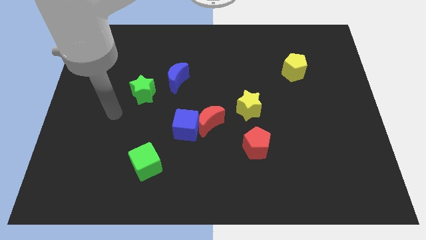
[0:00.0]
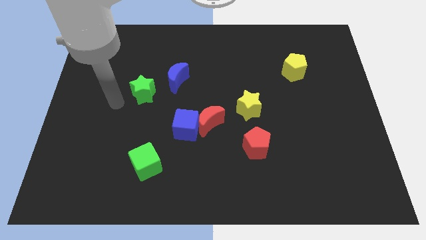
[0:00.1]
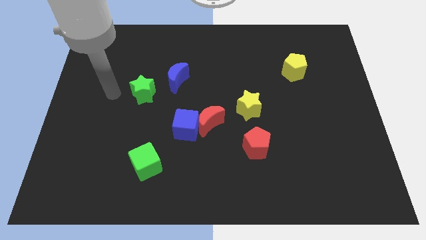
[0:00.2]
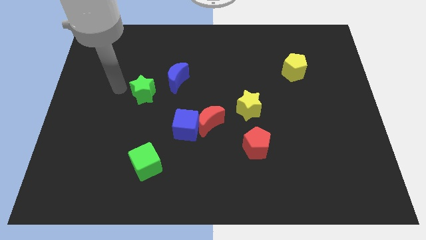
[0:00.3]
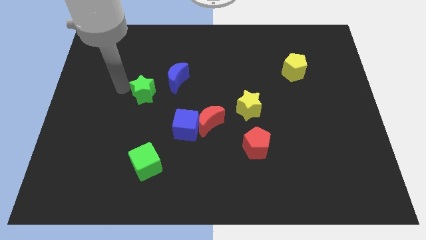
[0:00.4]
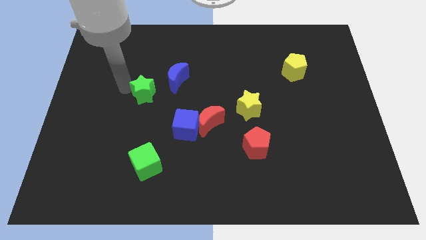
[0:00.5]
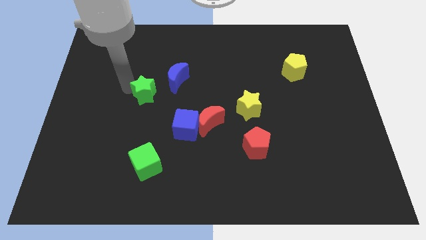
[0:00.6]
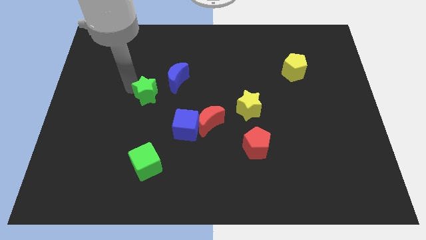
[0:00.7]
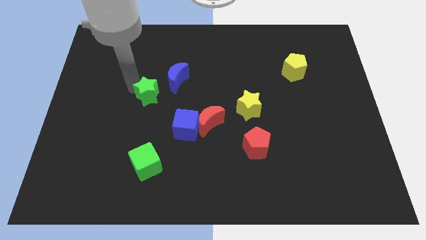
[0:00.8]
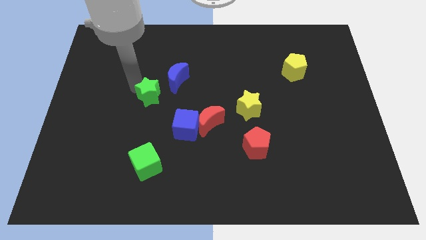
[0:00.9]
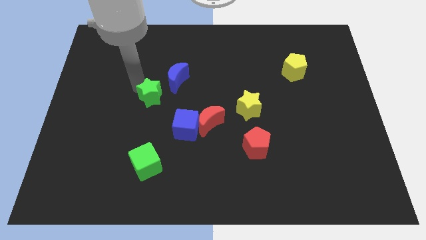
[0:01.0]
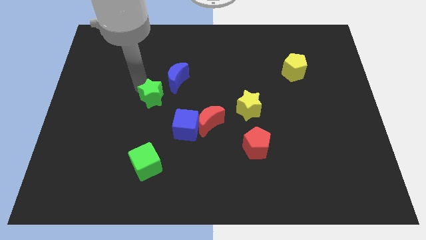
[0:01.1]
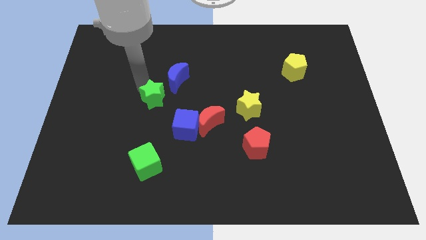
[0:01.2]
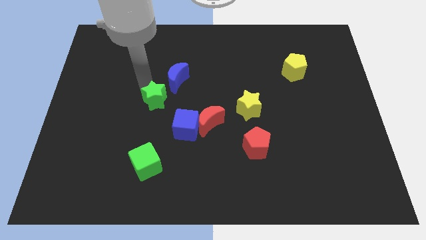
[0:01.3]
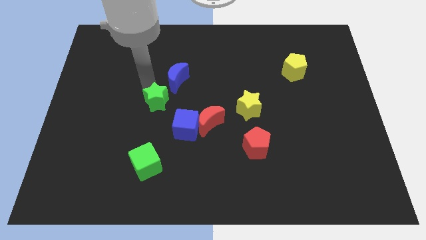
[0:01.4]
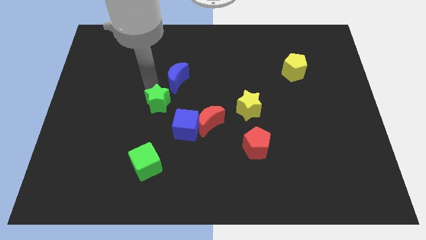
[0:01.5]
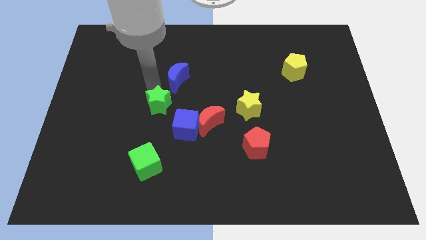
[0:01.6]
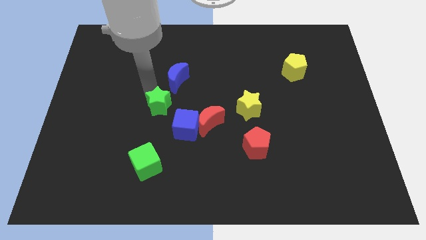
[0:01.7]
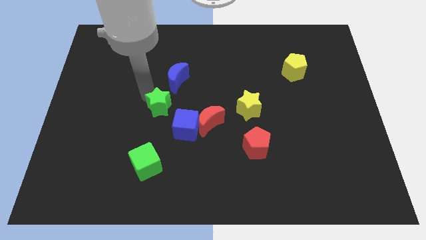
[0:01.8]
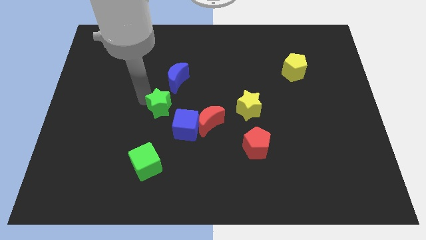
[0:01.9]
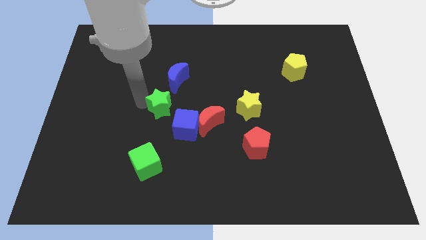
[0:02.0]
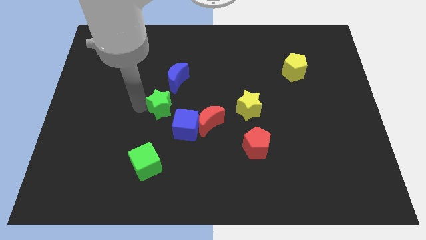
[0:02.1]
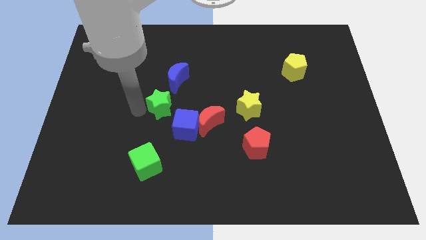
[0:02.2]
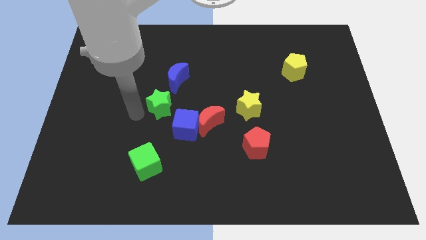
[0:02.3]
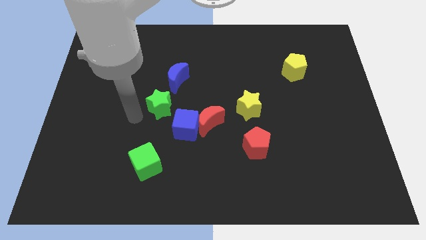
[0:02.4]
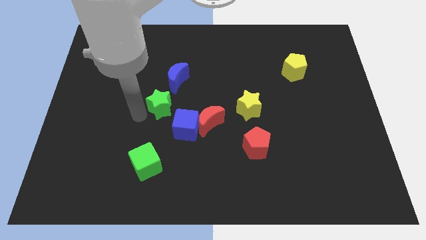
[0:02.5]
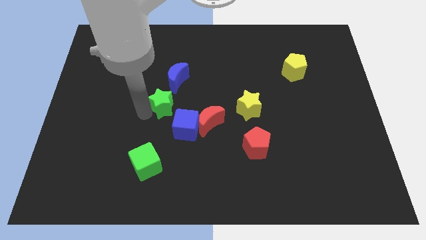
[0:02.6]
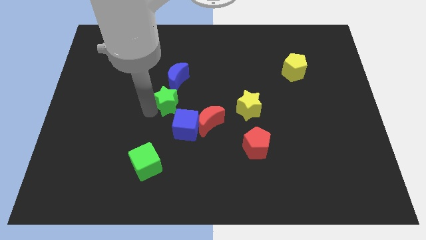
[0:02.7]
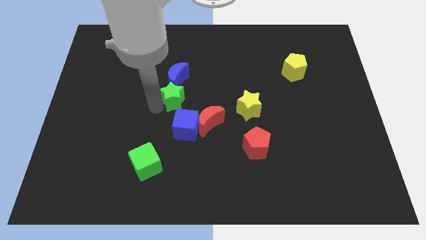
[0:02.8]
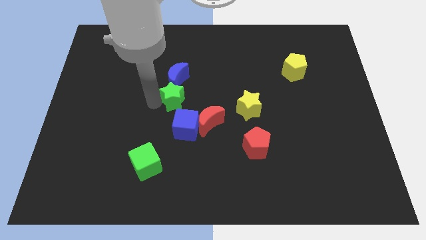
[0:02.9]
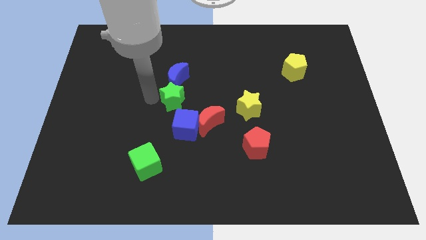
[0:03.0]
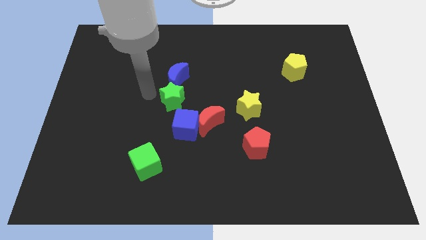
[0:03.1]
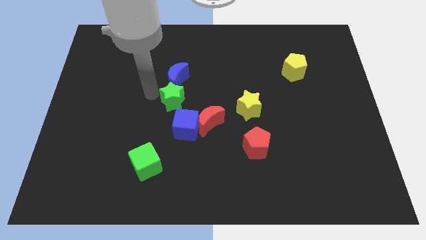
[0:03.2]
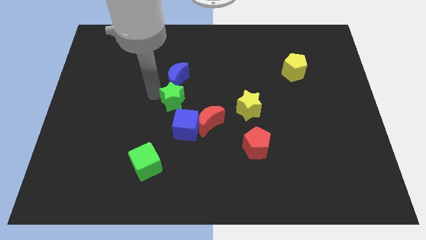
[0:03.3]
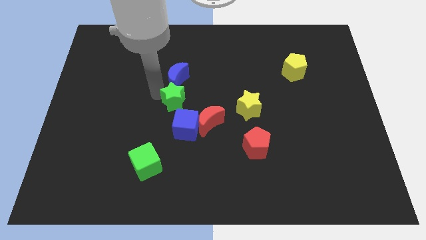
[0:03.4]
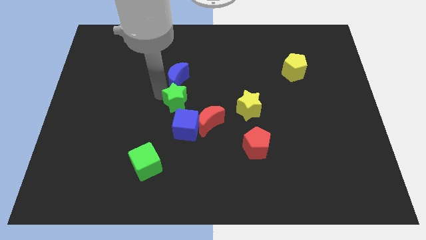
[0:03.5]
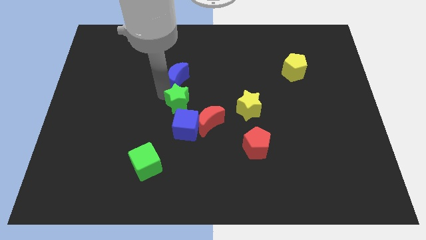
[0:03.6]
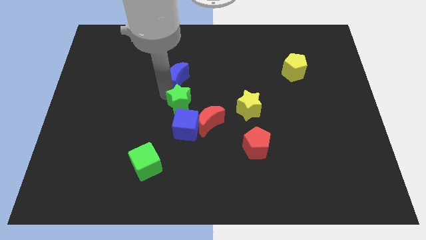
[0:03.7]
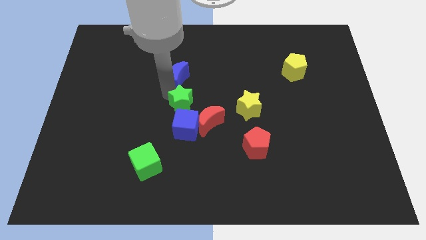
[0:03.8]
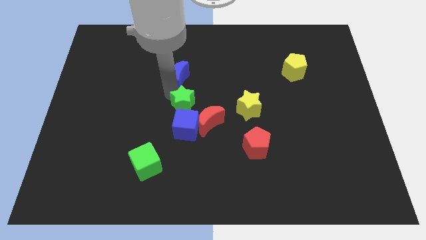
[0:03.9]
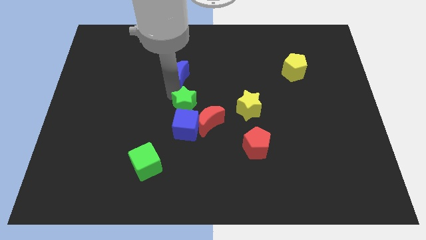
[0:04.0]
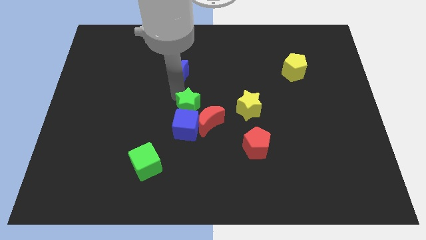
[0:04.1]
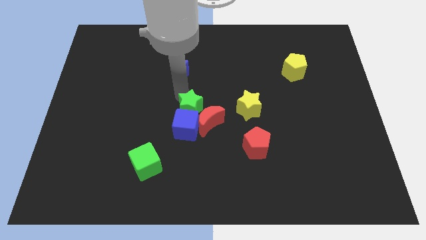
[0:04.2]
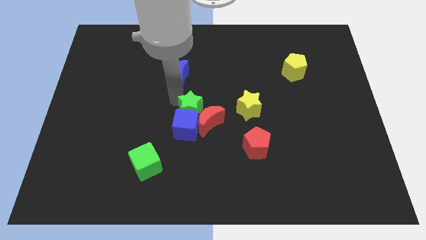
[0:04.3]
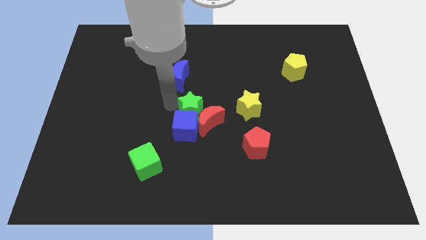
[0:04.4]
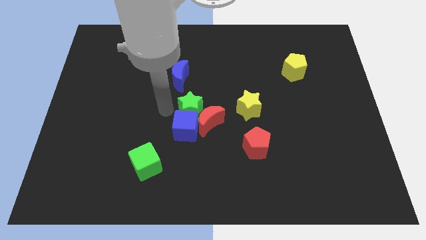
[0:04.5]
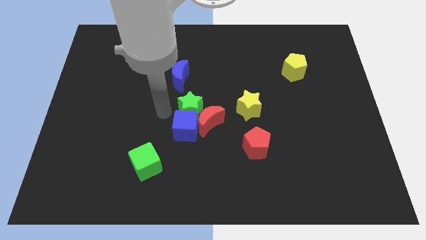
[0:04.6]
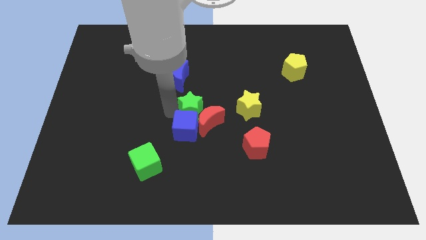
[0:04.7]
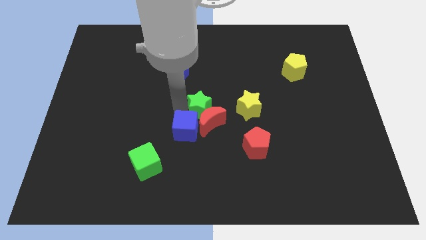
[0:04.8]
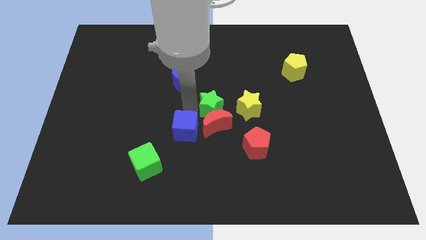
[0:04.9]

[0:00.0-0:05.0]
move the green star to the top right side of the red moon

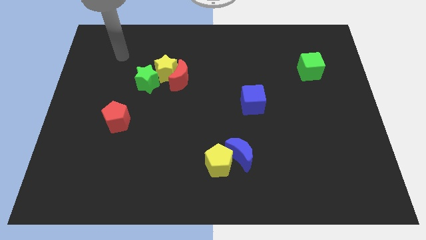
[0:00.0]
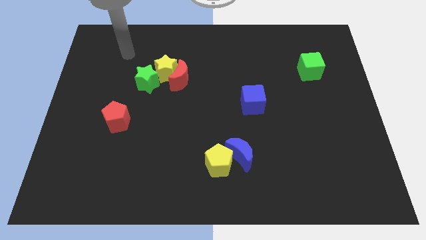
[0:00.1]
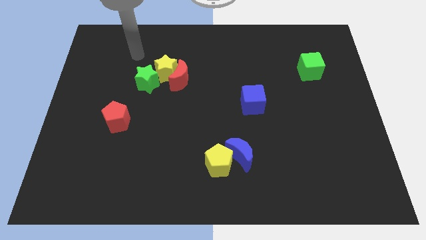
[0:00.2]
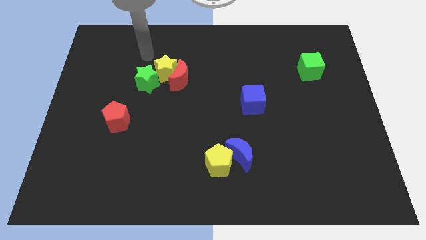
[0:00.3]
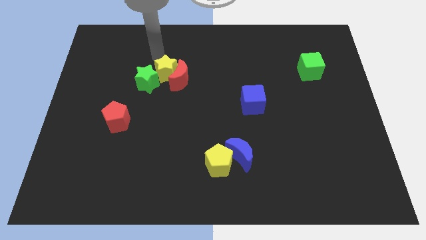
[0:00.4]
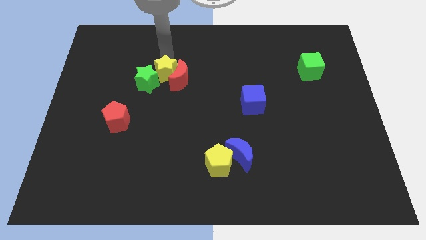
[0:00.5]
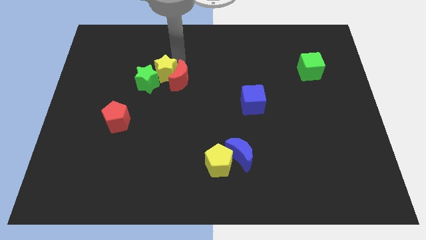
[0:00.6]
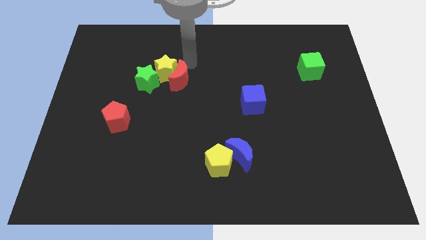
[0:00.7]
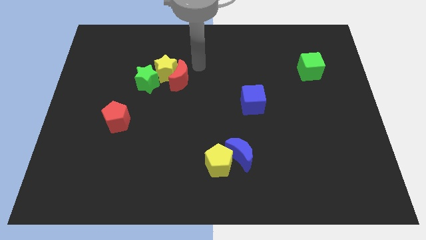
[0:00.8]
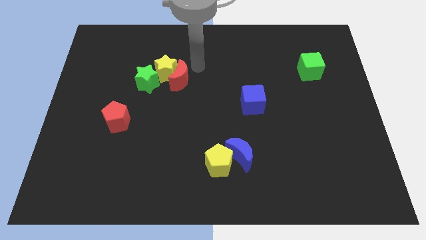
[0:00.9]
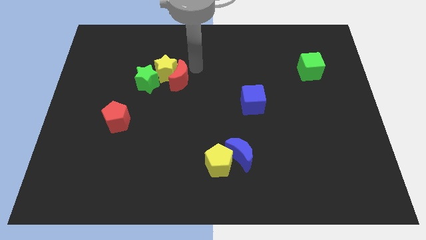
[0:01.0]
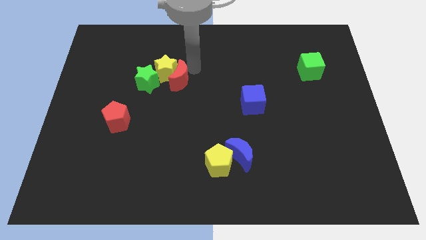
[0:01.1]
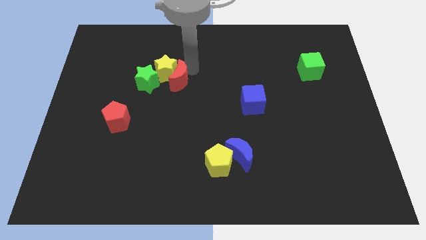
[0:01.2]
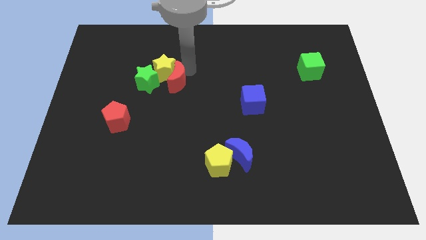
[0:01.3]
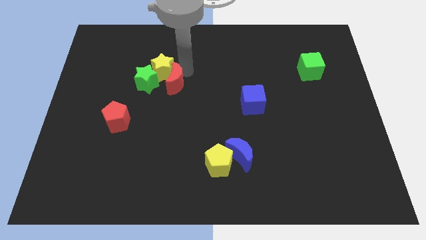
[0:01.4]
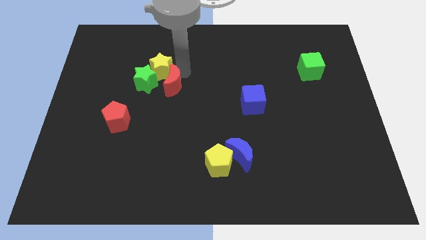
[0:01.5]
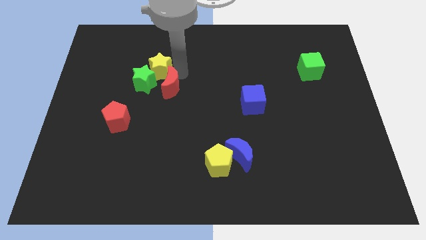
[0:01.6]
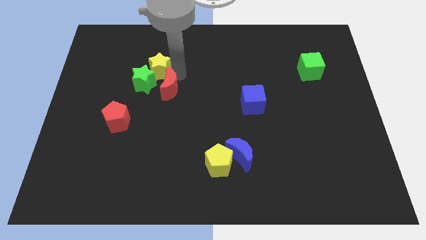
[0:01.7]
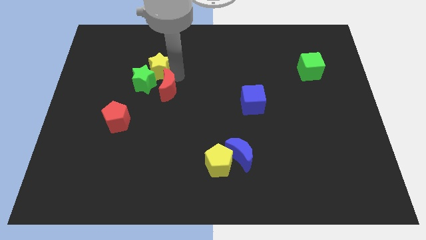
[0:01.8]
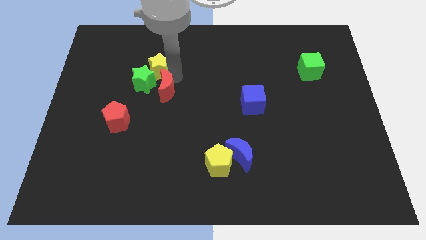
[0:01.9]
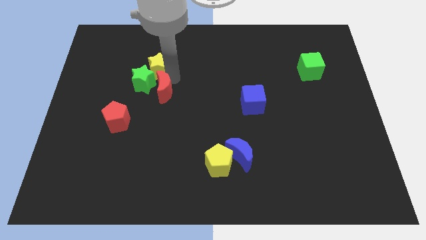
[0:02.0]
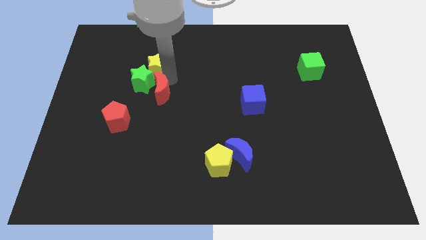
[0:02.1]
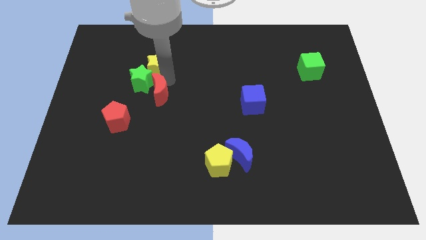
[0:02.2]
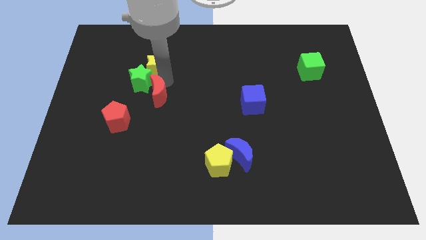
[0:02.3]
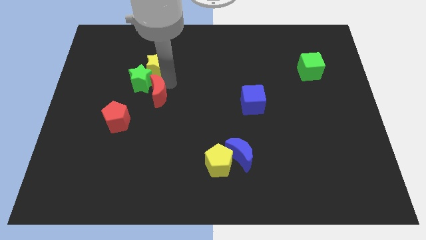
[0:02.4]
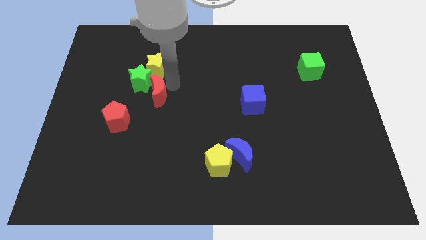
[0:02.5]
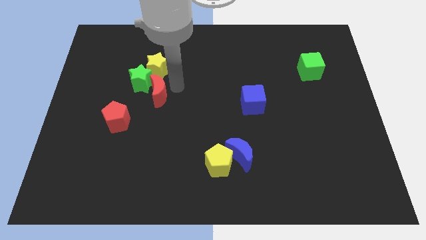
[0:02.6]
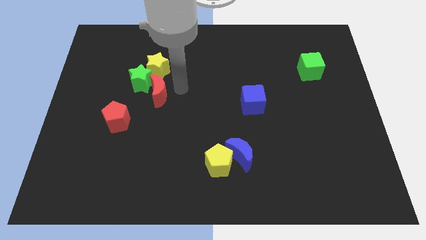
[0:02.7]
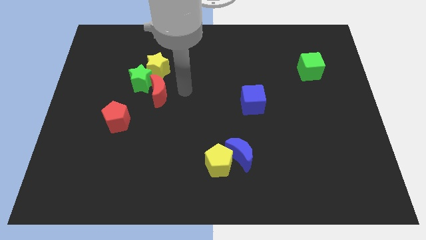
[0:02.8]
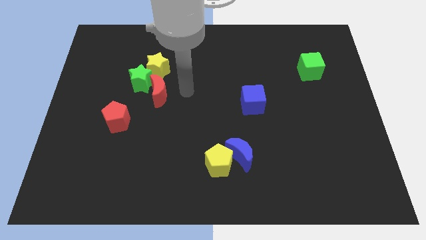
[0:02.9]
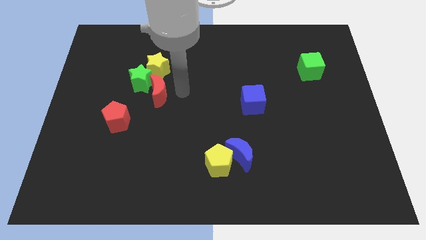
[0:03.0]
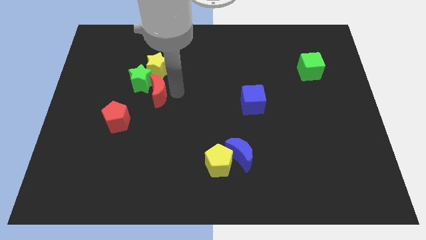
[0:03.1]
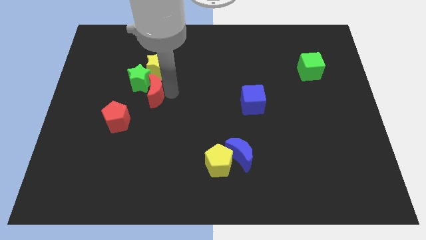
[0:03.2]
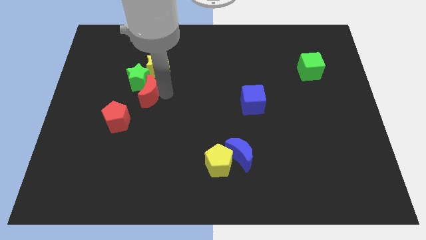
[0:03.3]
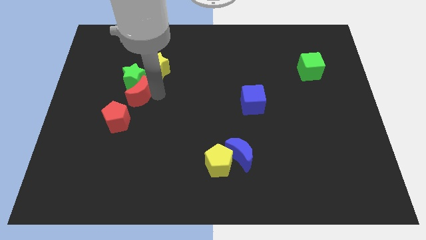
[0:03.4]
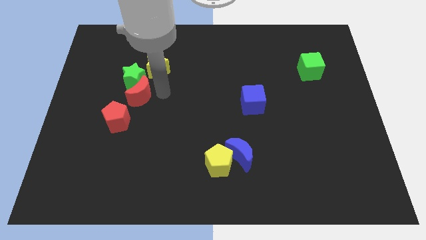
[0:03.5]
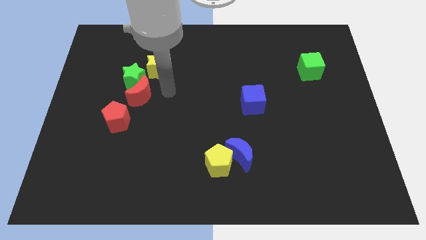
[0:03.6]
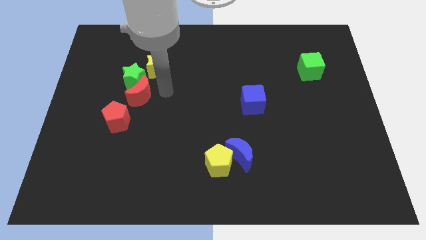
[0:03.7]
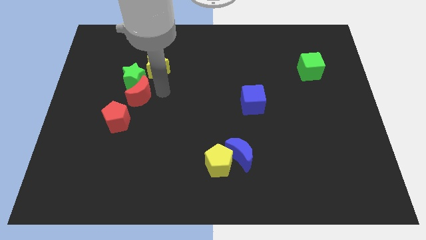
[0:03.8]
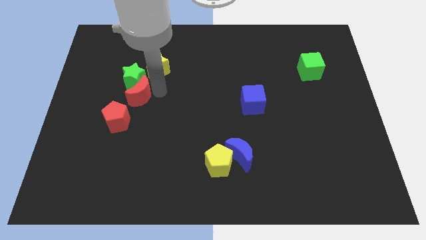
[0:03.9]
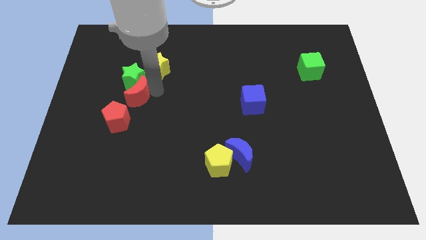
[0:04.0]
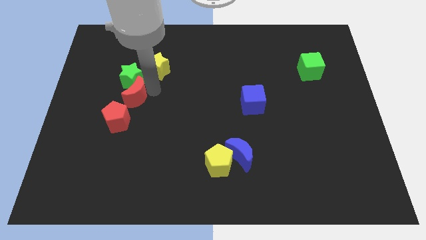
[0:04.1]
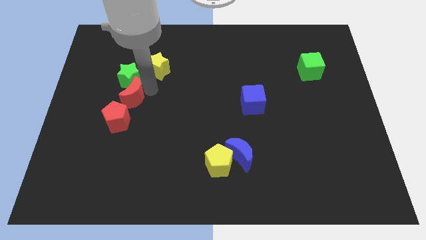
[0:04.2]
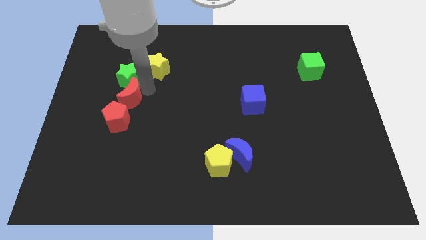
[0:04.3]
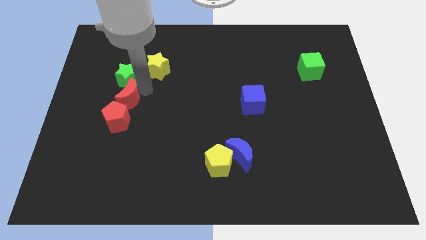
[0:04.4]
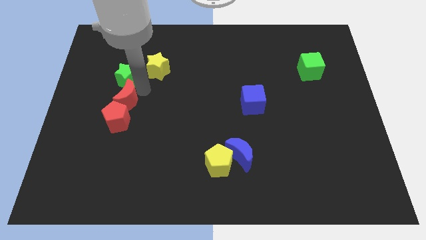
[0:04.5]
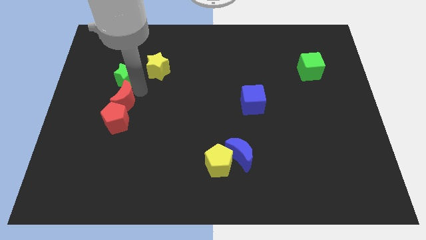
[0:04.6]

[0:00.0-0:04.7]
put the red moon to the top left of the red pentagon
